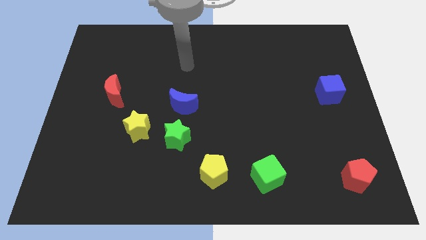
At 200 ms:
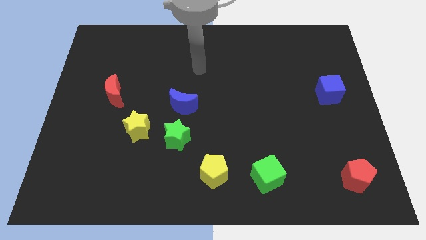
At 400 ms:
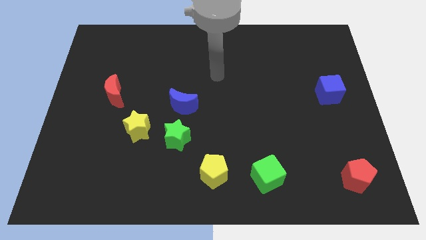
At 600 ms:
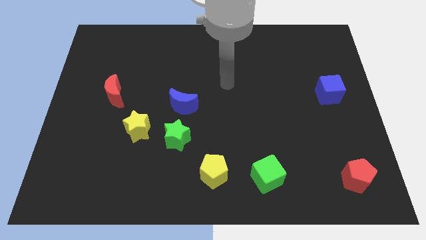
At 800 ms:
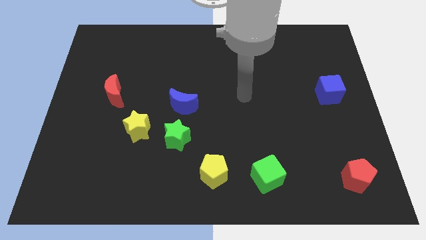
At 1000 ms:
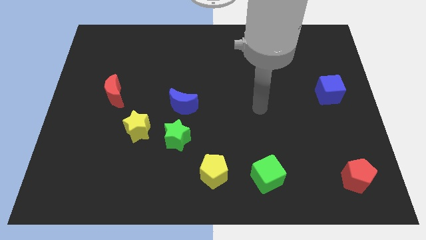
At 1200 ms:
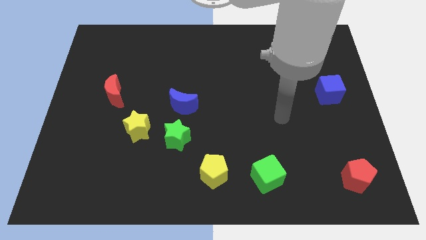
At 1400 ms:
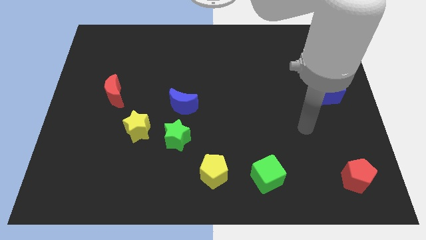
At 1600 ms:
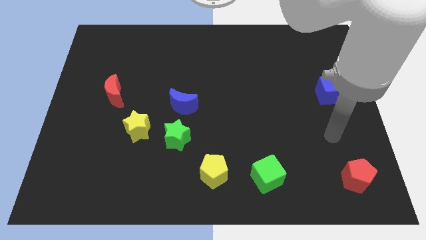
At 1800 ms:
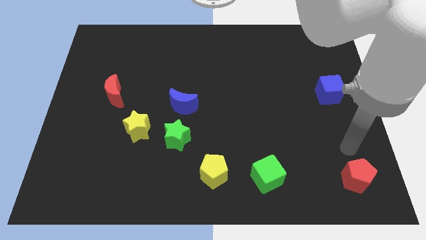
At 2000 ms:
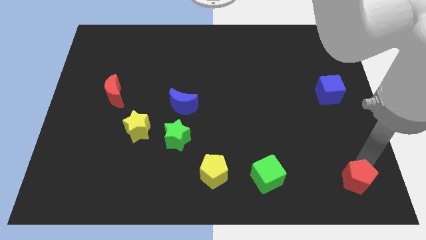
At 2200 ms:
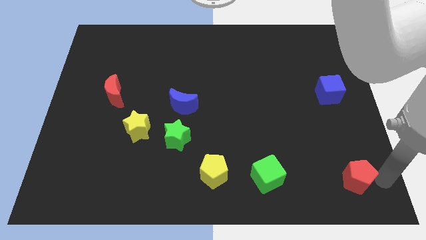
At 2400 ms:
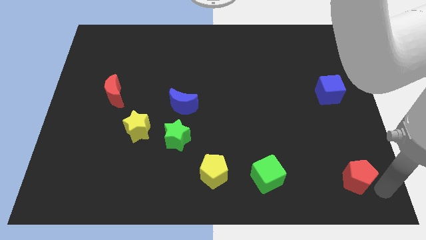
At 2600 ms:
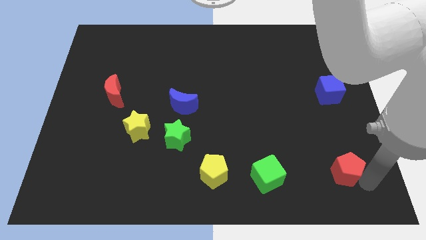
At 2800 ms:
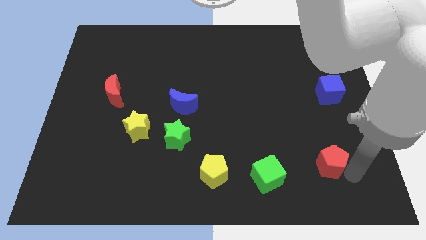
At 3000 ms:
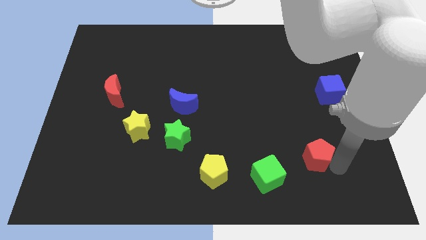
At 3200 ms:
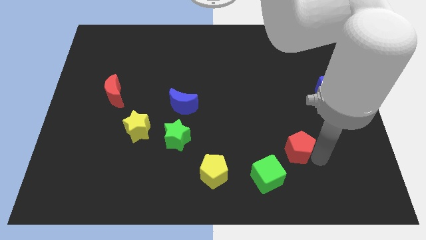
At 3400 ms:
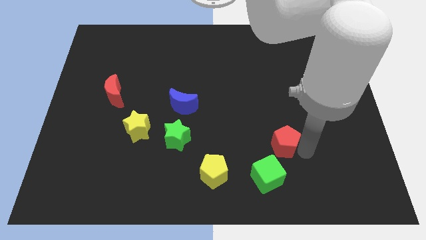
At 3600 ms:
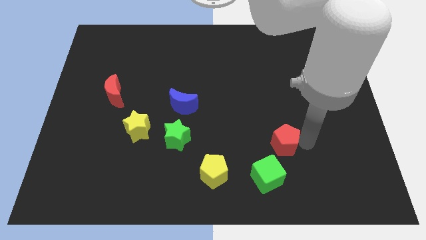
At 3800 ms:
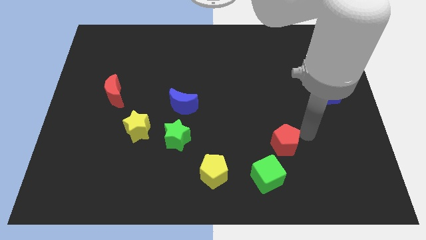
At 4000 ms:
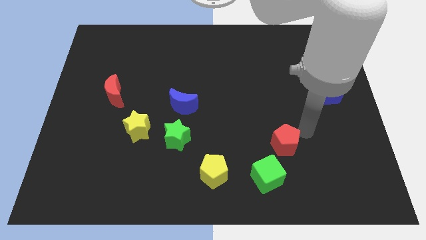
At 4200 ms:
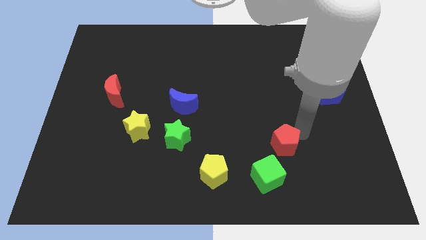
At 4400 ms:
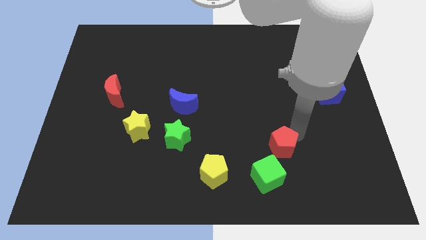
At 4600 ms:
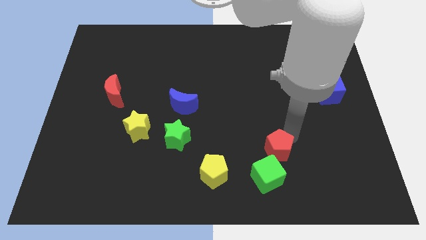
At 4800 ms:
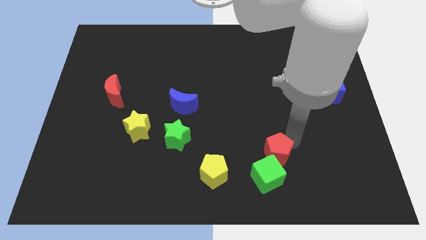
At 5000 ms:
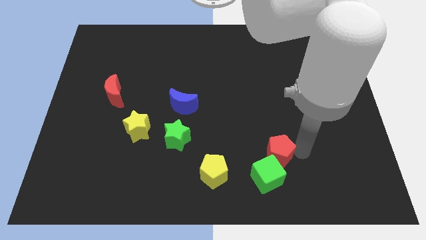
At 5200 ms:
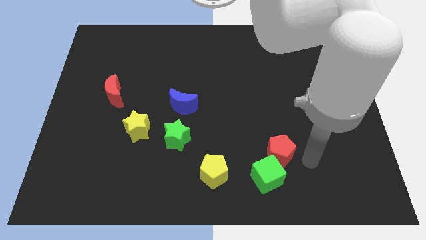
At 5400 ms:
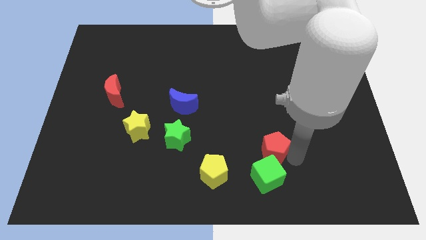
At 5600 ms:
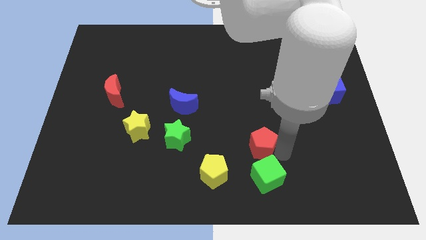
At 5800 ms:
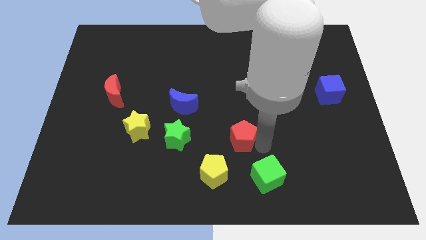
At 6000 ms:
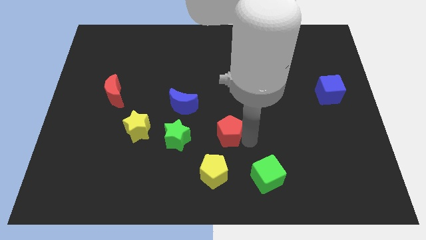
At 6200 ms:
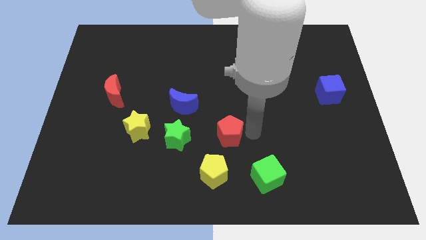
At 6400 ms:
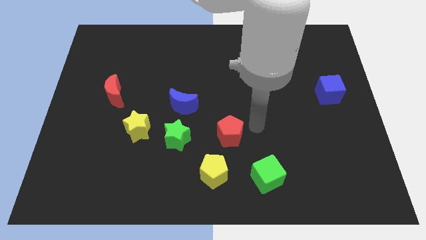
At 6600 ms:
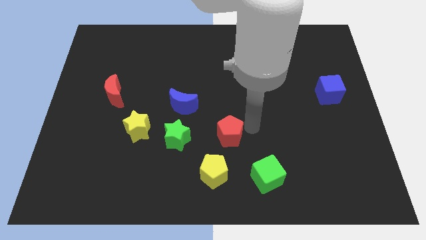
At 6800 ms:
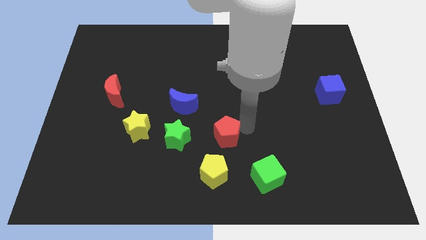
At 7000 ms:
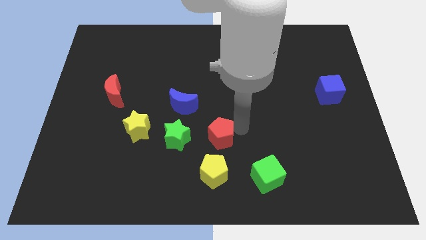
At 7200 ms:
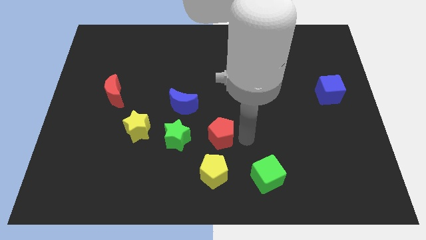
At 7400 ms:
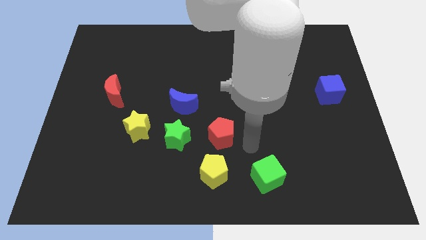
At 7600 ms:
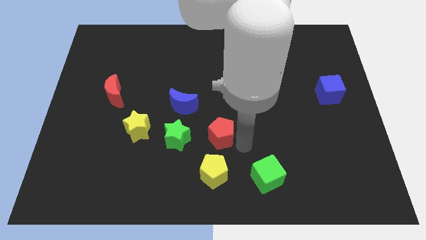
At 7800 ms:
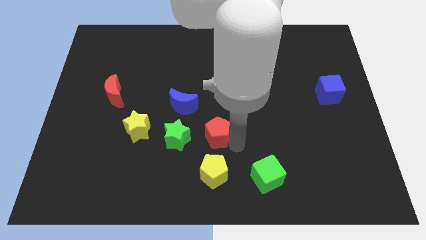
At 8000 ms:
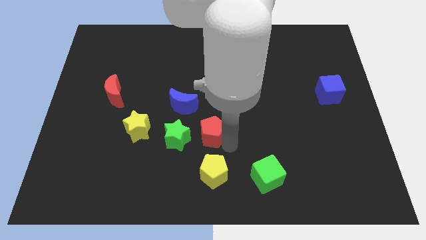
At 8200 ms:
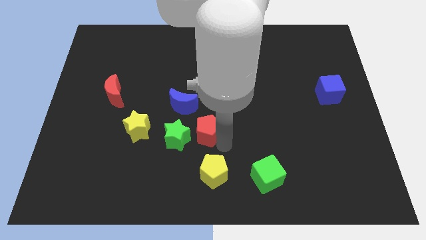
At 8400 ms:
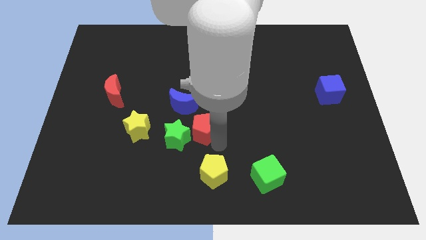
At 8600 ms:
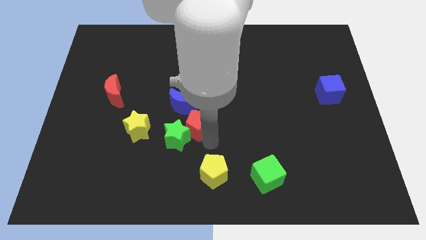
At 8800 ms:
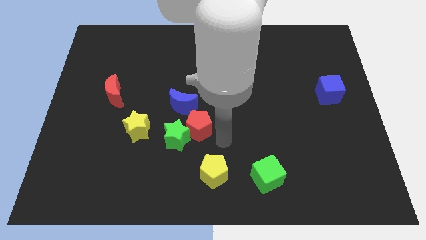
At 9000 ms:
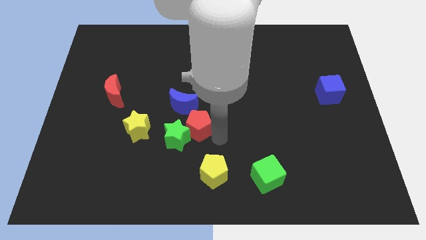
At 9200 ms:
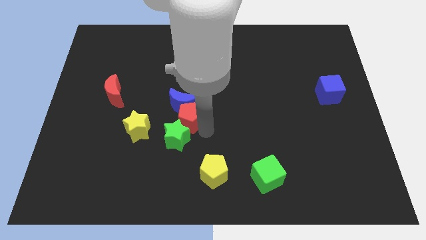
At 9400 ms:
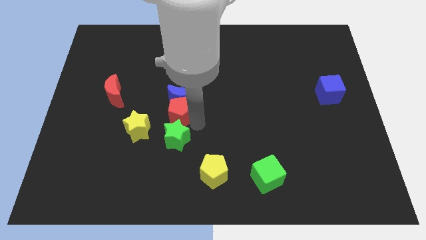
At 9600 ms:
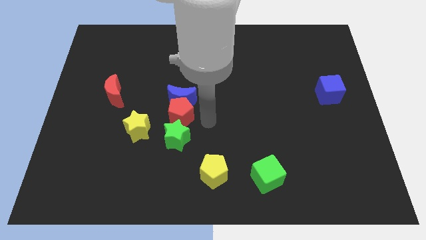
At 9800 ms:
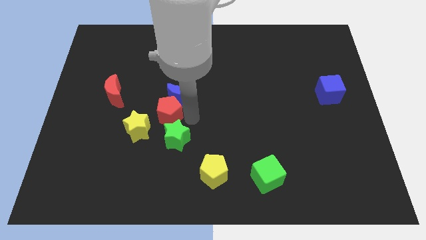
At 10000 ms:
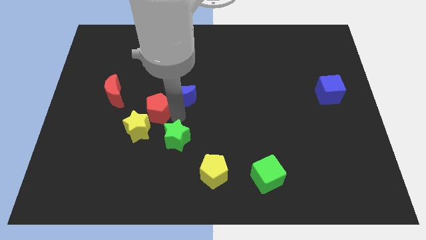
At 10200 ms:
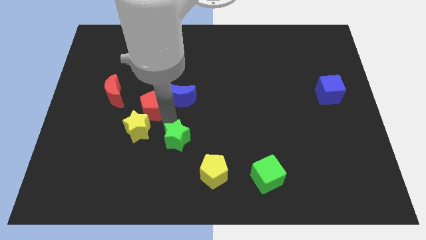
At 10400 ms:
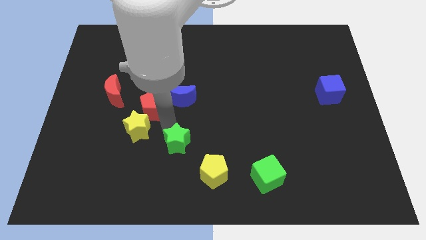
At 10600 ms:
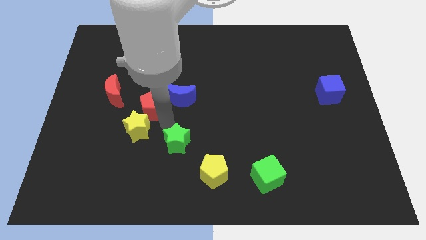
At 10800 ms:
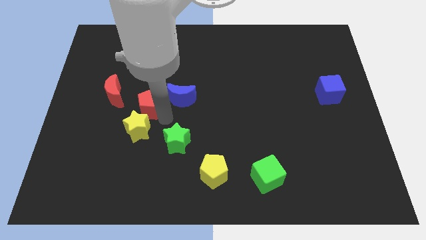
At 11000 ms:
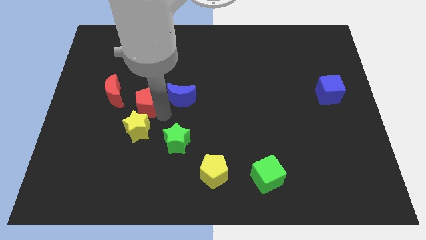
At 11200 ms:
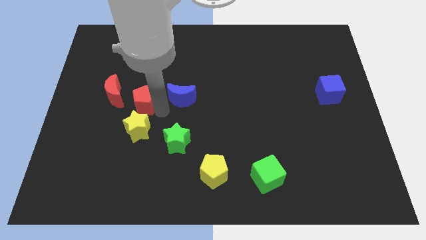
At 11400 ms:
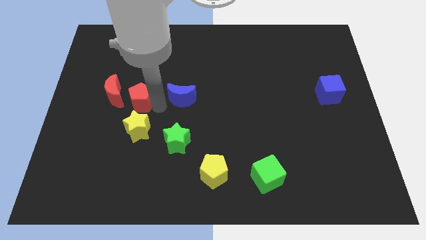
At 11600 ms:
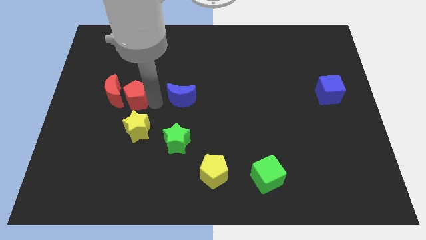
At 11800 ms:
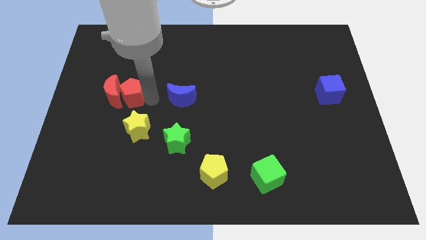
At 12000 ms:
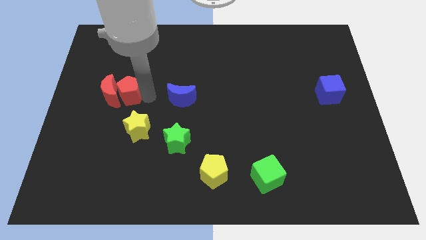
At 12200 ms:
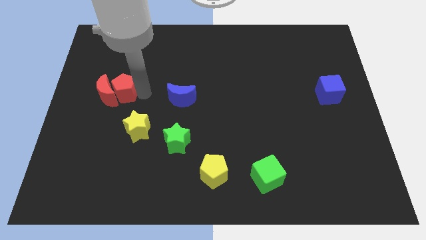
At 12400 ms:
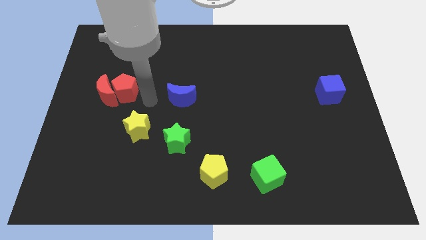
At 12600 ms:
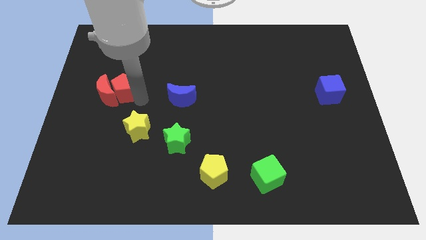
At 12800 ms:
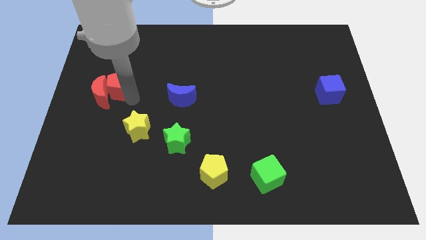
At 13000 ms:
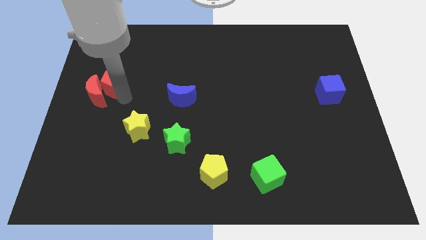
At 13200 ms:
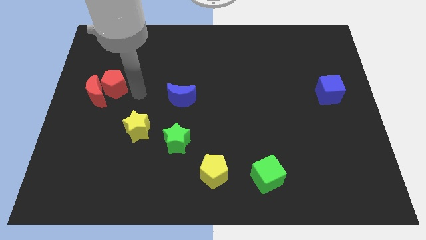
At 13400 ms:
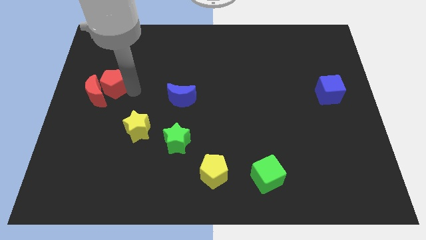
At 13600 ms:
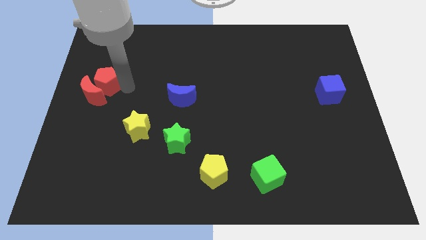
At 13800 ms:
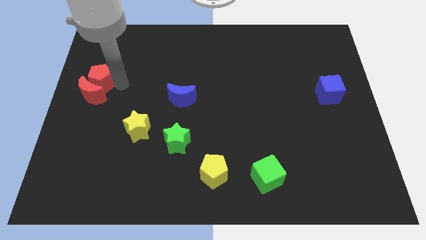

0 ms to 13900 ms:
push the red pentagon to the top left side of the red moon
